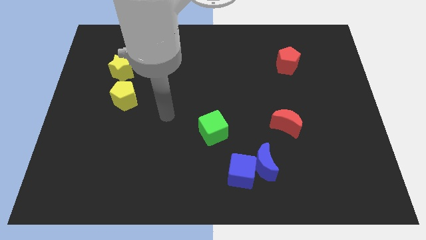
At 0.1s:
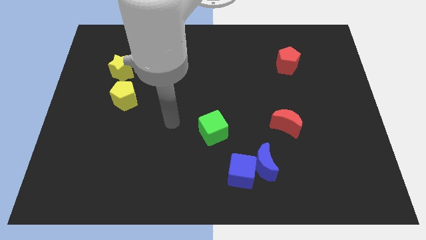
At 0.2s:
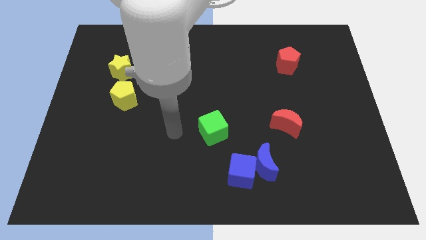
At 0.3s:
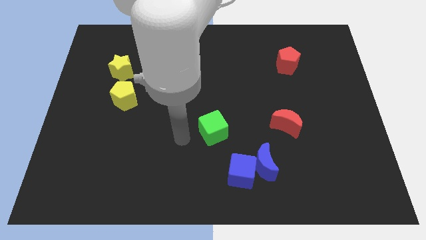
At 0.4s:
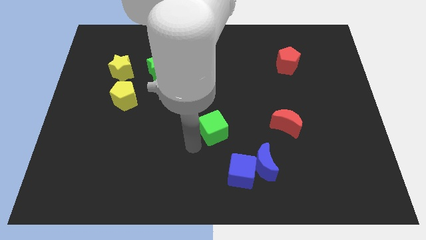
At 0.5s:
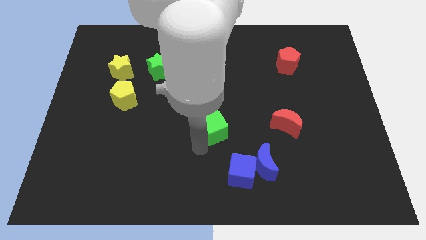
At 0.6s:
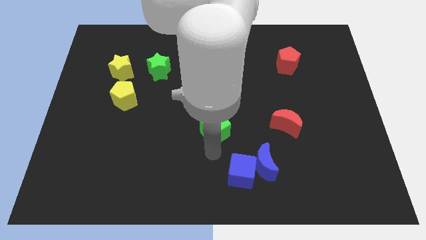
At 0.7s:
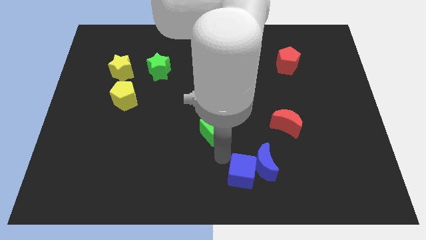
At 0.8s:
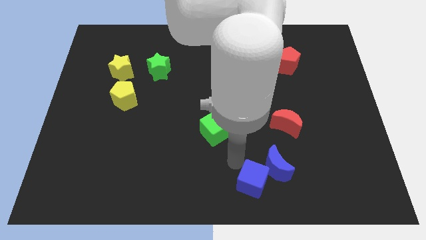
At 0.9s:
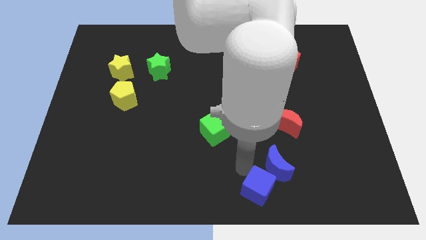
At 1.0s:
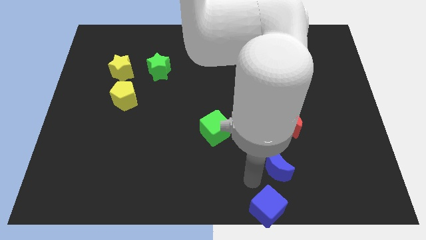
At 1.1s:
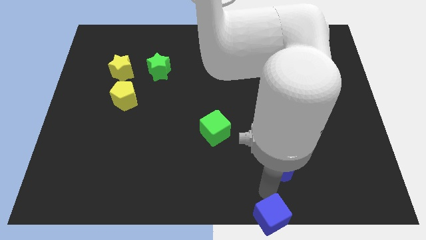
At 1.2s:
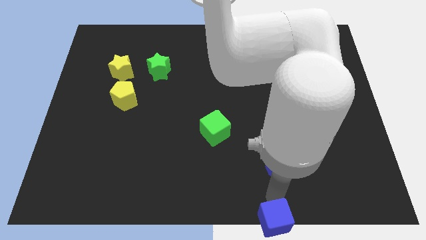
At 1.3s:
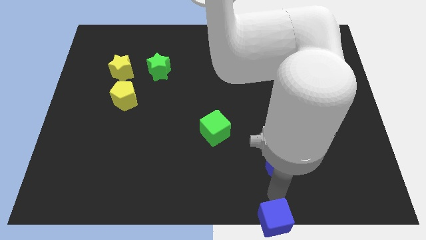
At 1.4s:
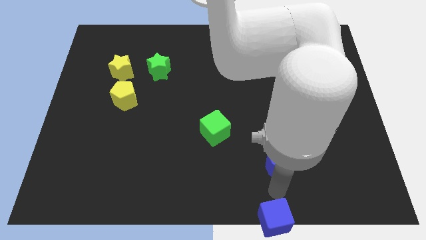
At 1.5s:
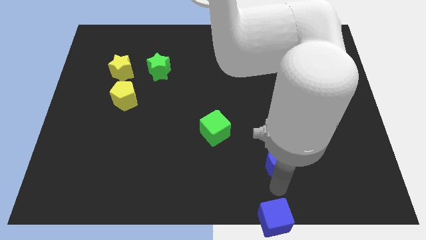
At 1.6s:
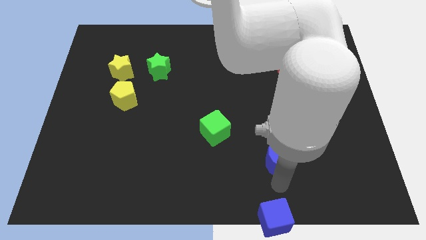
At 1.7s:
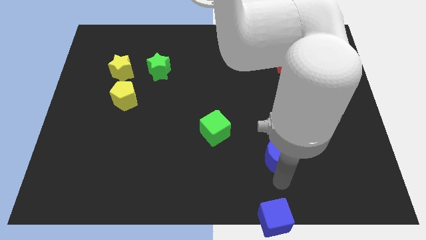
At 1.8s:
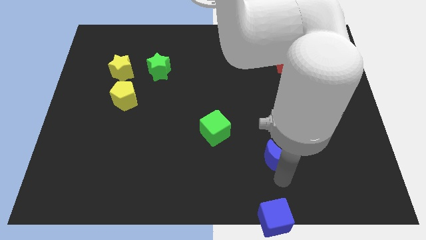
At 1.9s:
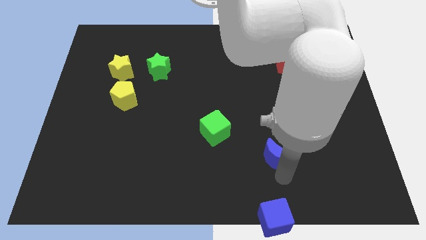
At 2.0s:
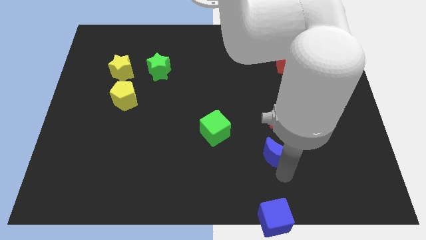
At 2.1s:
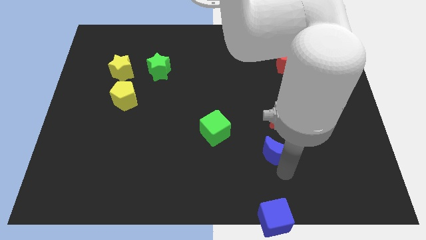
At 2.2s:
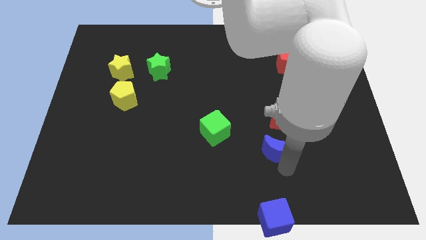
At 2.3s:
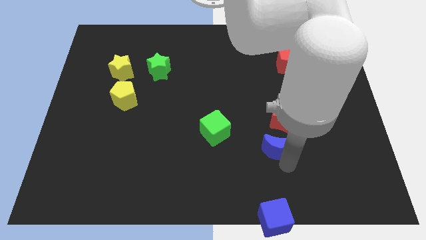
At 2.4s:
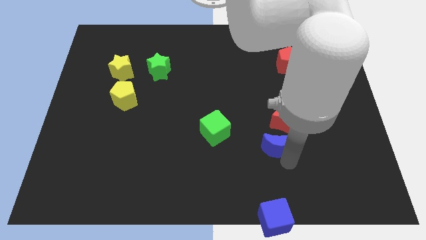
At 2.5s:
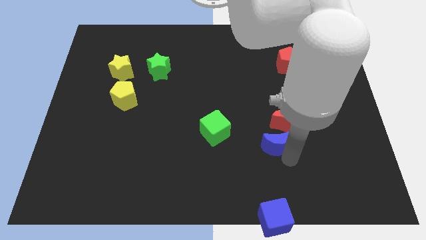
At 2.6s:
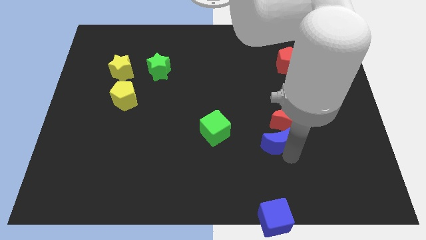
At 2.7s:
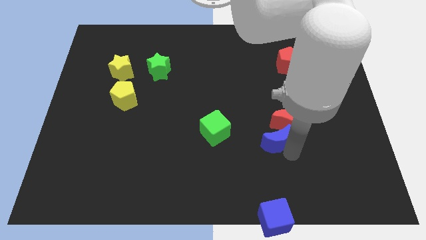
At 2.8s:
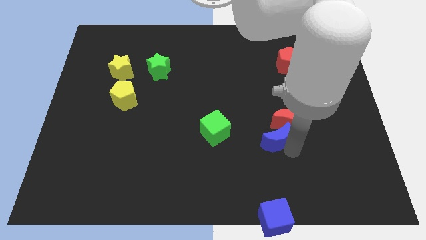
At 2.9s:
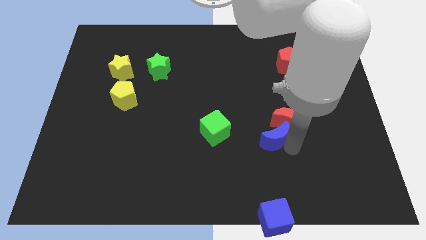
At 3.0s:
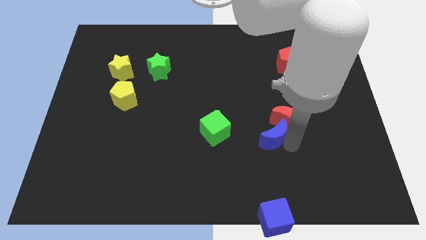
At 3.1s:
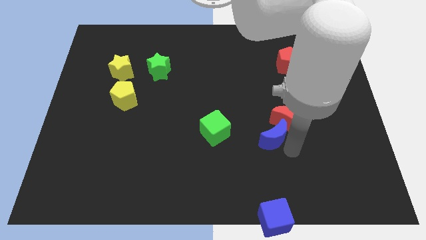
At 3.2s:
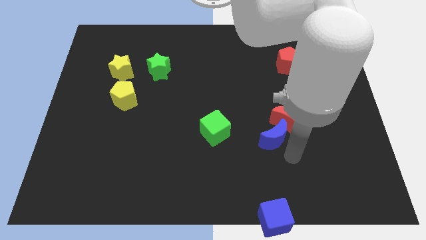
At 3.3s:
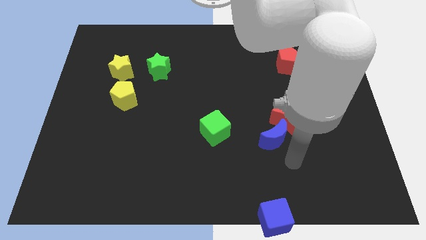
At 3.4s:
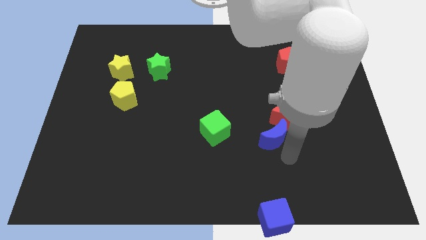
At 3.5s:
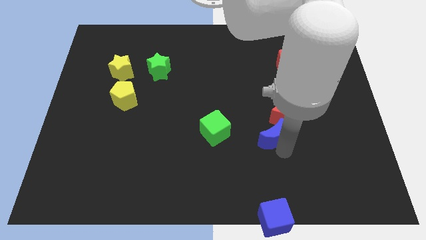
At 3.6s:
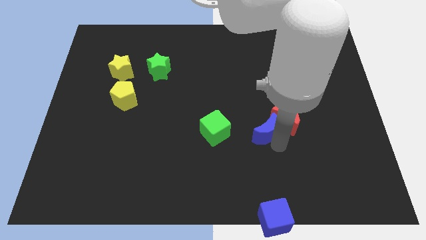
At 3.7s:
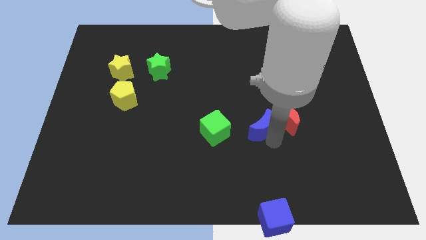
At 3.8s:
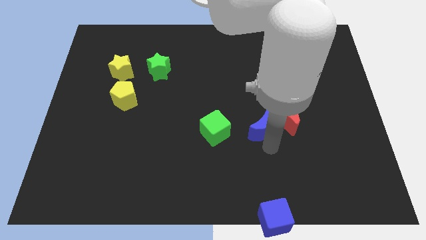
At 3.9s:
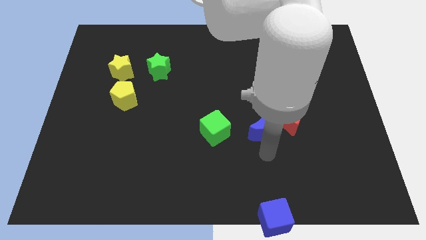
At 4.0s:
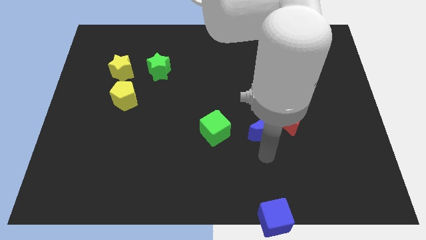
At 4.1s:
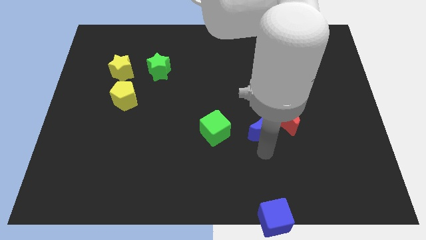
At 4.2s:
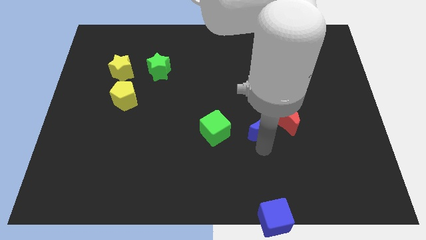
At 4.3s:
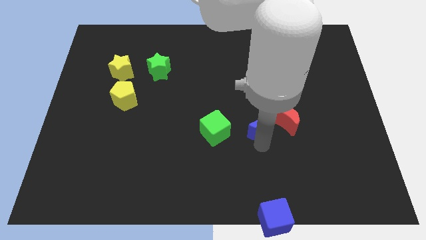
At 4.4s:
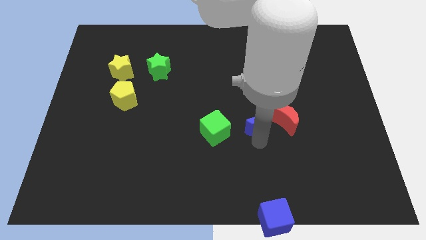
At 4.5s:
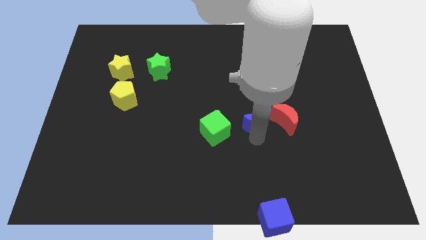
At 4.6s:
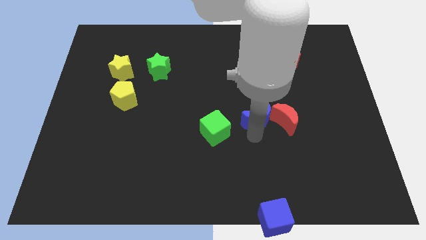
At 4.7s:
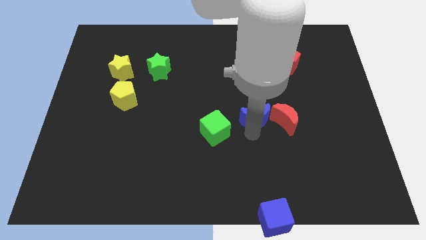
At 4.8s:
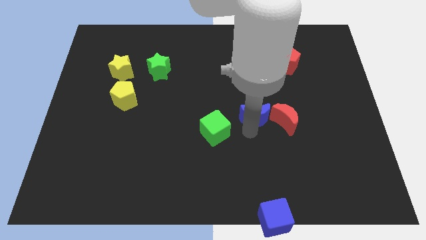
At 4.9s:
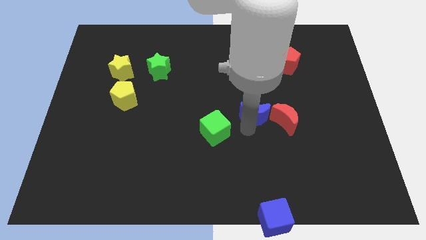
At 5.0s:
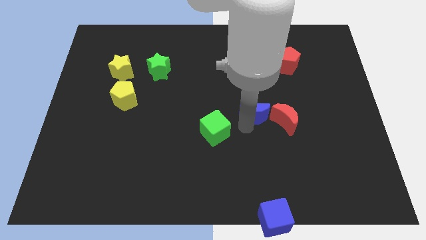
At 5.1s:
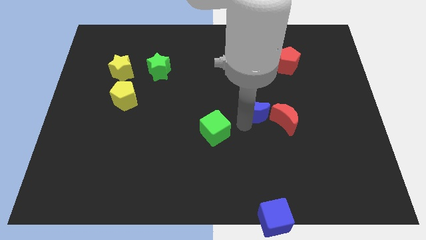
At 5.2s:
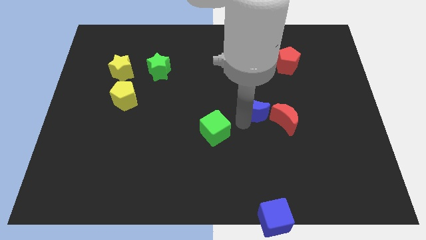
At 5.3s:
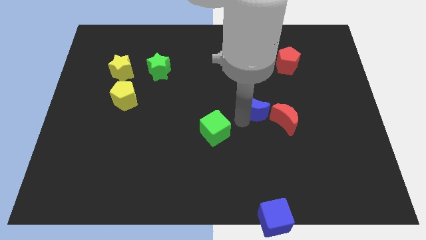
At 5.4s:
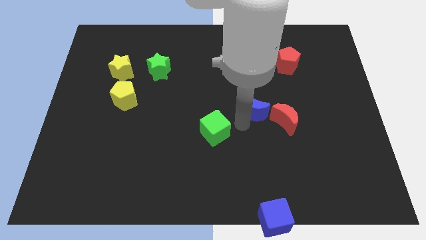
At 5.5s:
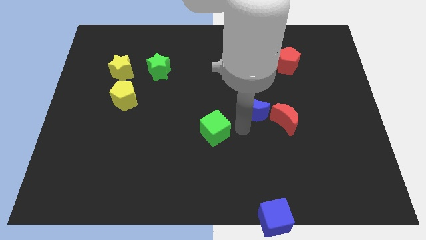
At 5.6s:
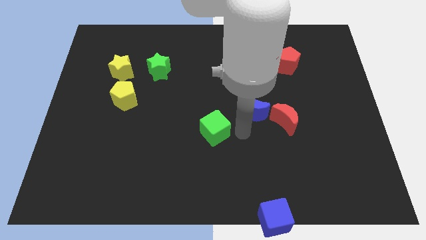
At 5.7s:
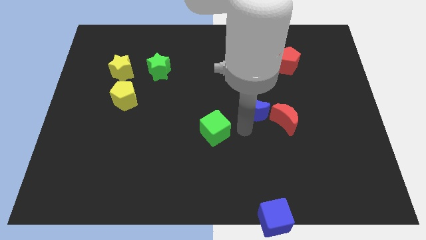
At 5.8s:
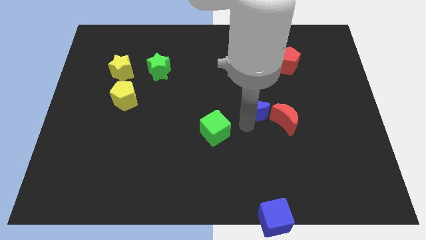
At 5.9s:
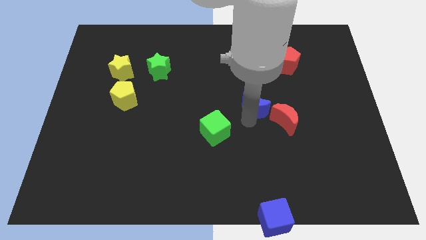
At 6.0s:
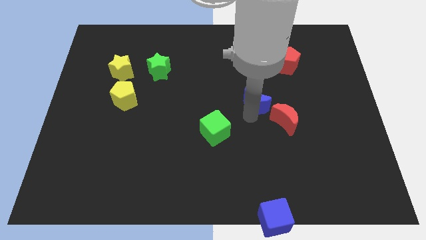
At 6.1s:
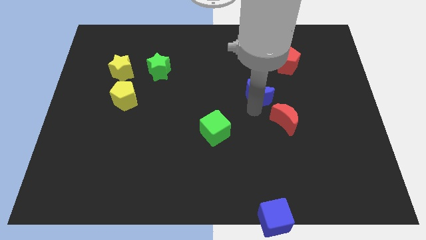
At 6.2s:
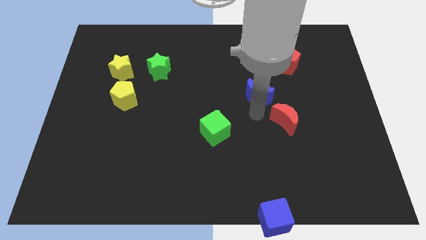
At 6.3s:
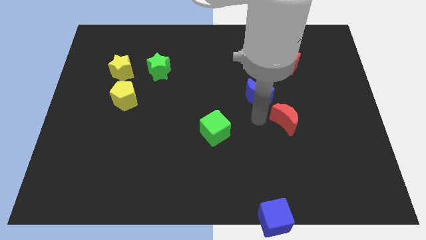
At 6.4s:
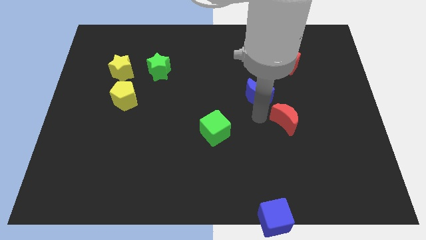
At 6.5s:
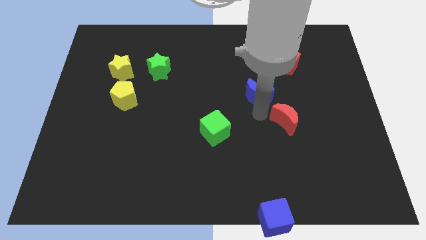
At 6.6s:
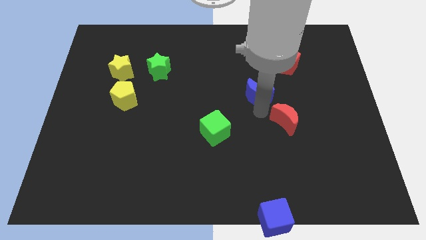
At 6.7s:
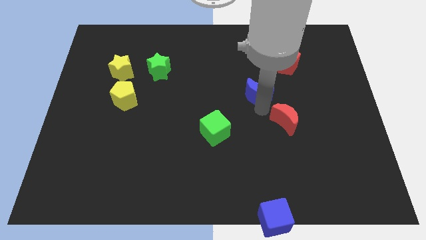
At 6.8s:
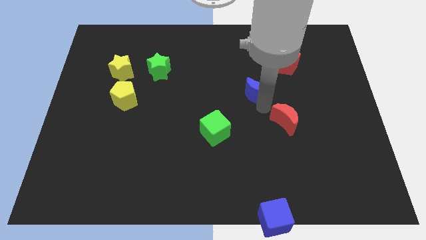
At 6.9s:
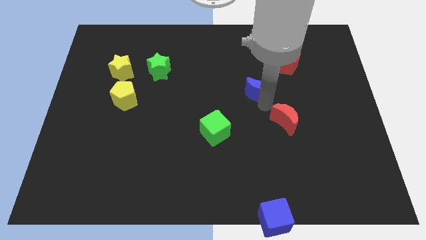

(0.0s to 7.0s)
move the blue moon up

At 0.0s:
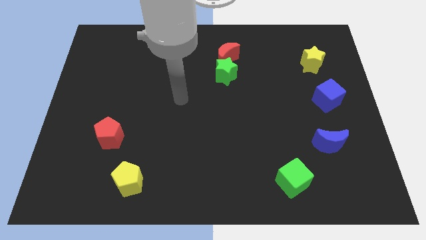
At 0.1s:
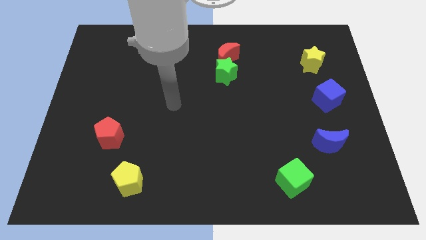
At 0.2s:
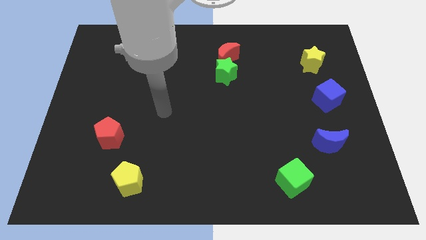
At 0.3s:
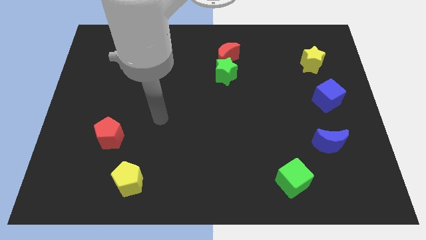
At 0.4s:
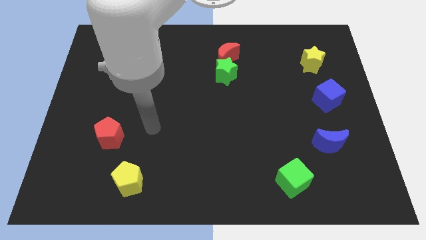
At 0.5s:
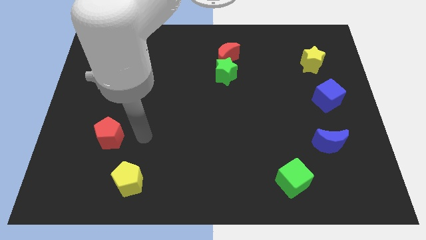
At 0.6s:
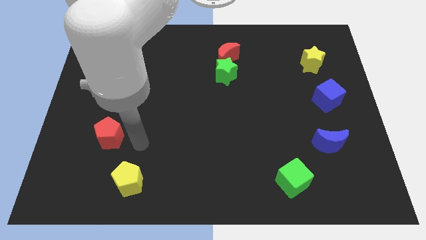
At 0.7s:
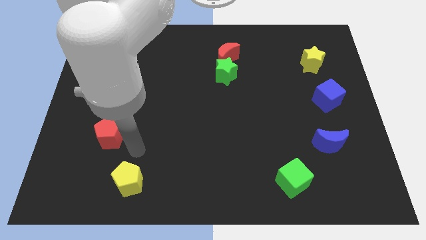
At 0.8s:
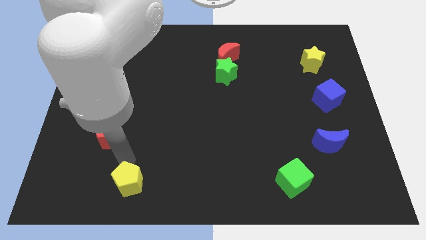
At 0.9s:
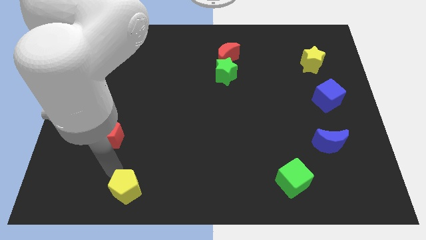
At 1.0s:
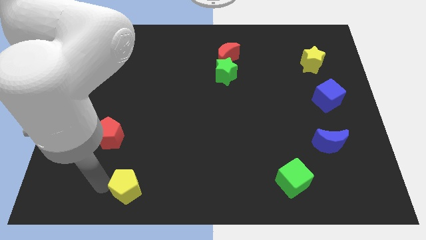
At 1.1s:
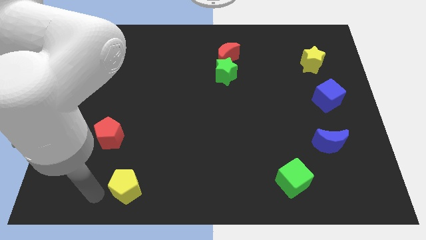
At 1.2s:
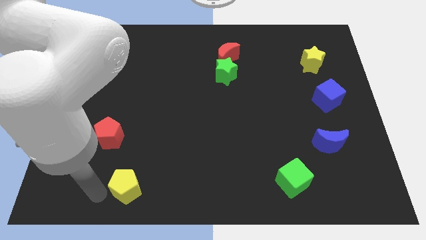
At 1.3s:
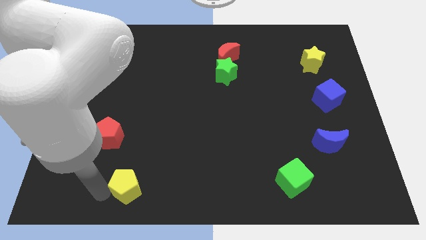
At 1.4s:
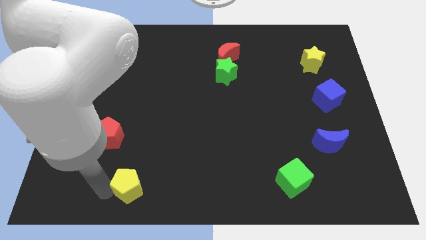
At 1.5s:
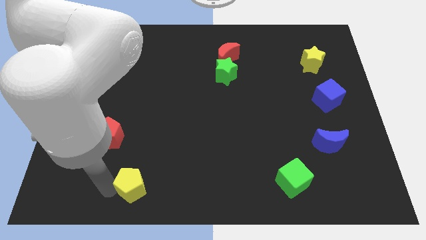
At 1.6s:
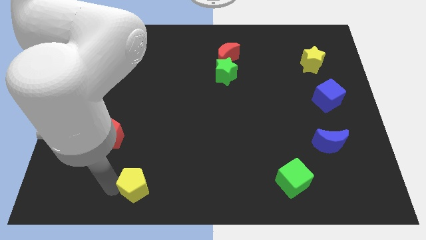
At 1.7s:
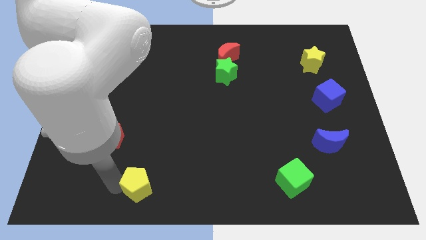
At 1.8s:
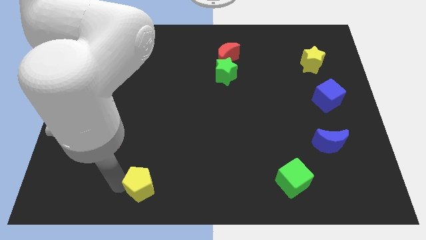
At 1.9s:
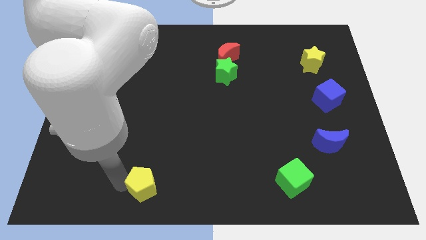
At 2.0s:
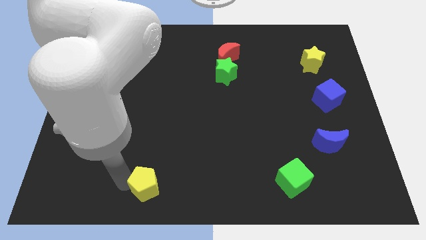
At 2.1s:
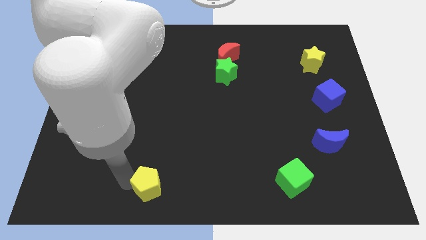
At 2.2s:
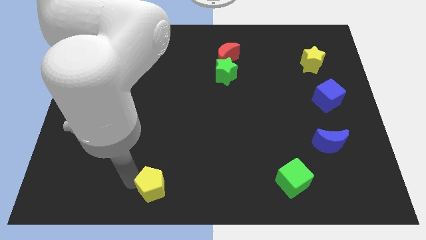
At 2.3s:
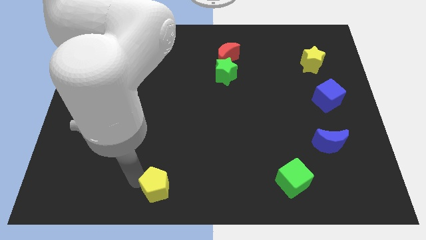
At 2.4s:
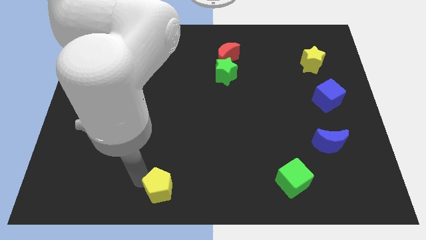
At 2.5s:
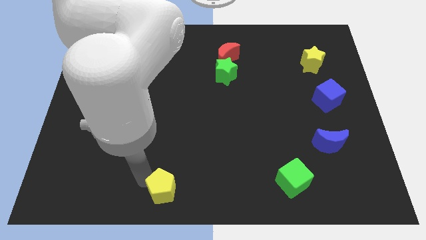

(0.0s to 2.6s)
slightly push the yellow pentagon right
